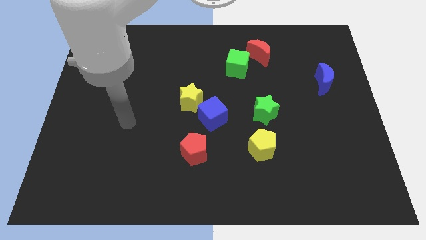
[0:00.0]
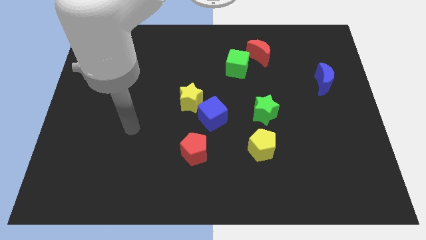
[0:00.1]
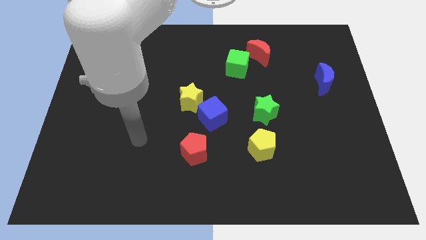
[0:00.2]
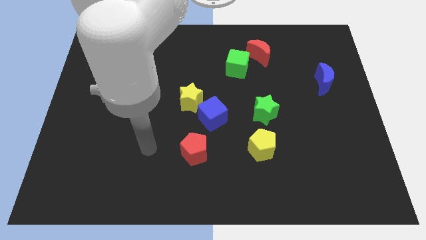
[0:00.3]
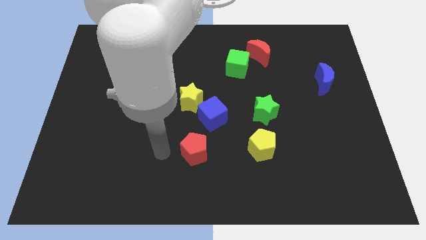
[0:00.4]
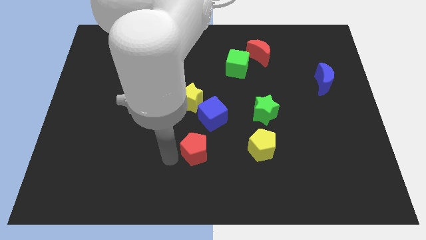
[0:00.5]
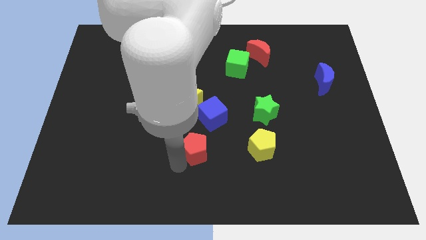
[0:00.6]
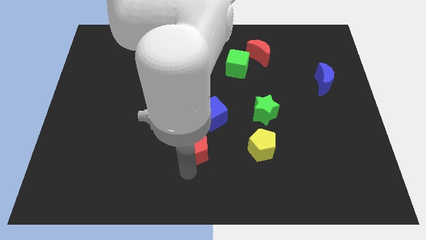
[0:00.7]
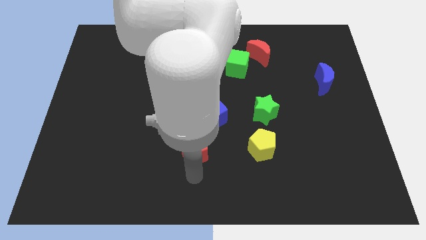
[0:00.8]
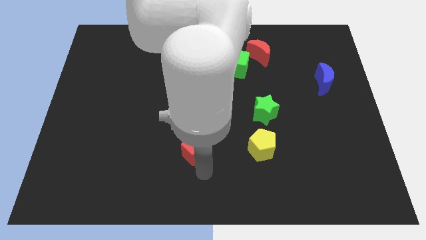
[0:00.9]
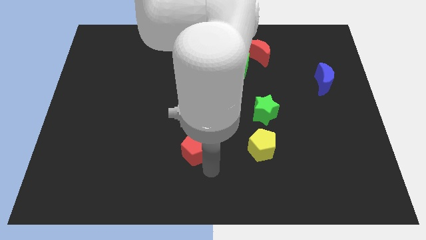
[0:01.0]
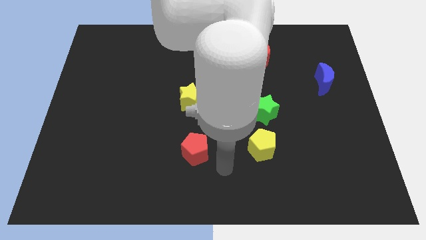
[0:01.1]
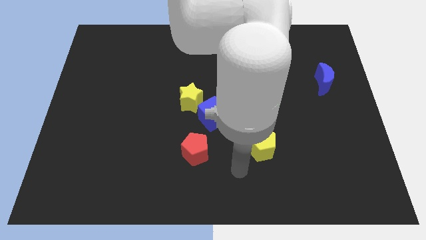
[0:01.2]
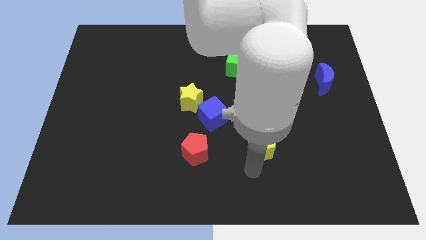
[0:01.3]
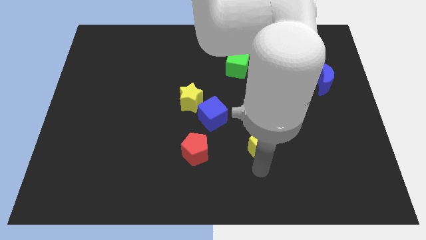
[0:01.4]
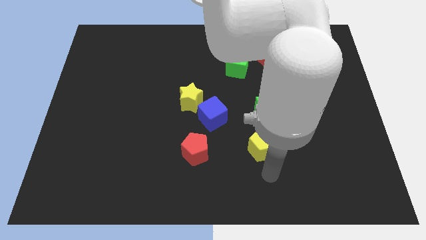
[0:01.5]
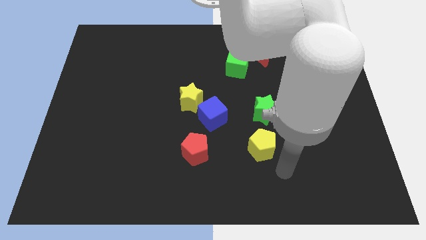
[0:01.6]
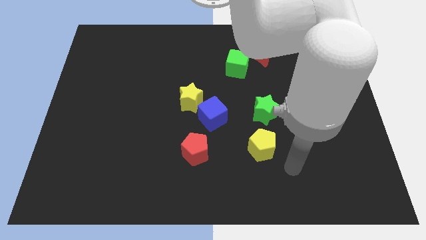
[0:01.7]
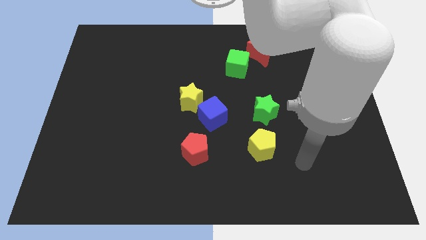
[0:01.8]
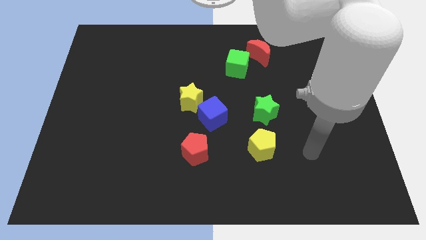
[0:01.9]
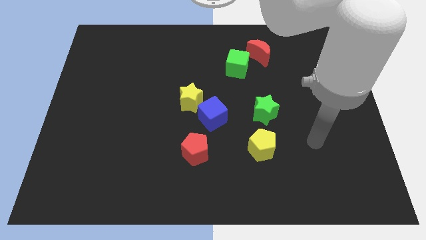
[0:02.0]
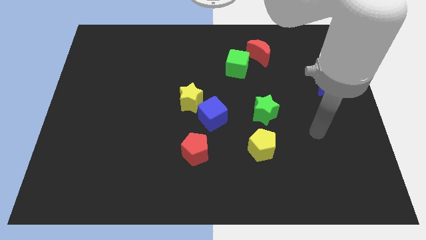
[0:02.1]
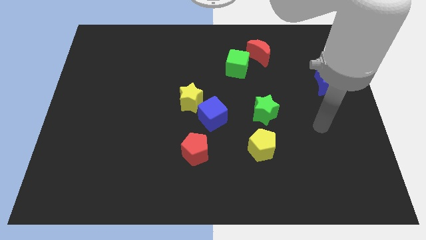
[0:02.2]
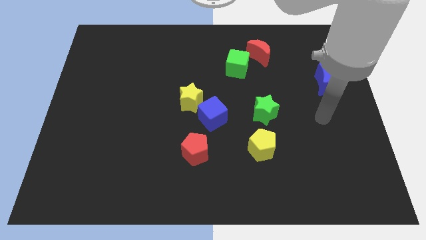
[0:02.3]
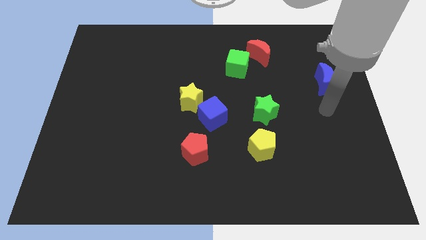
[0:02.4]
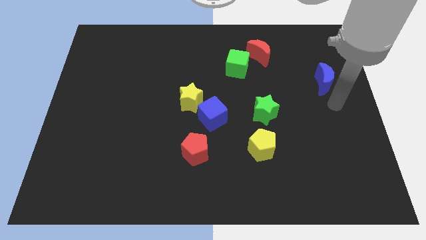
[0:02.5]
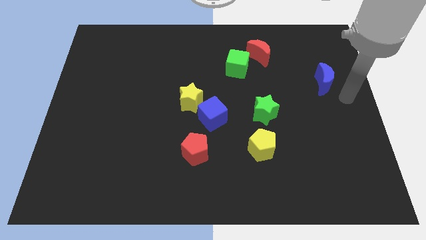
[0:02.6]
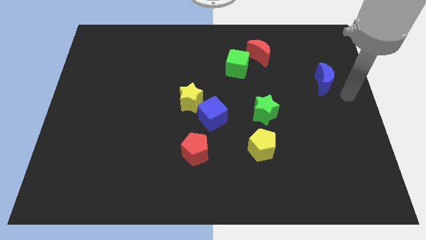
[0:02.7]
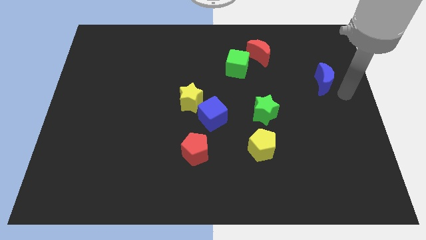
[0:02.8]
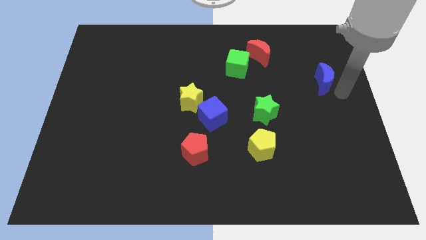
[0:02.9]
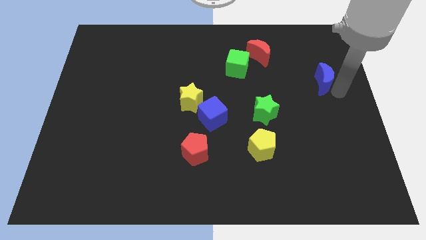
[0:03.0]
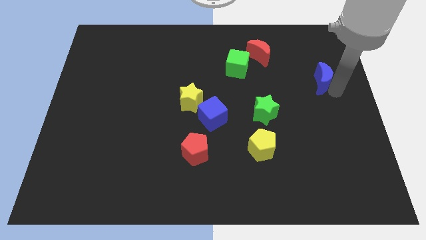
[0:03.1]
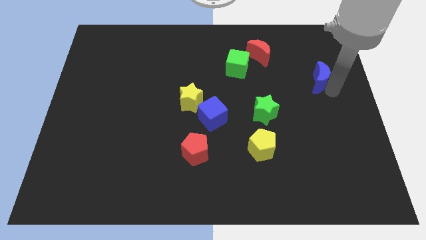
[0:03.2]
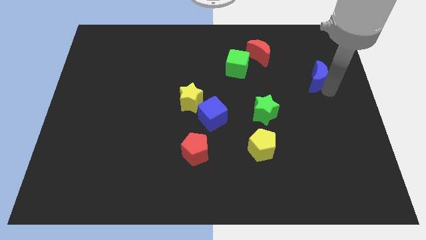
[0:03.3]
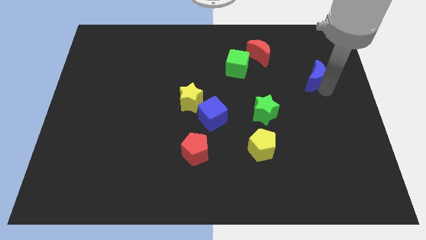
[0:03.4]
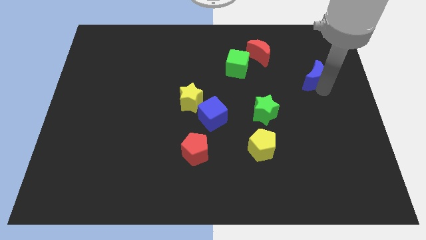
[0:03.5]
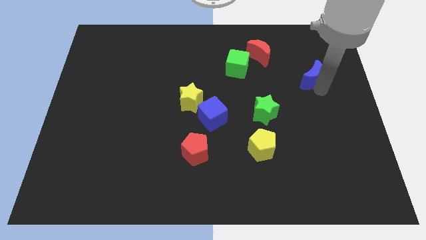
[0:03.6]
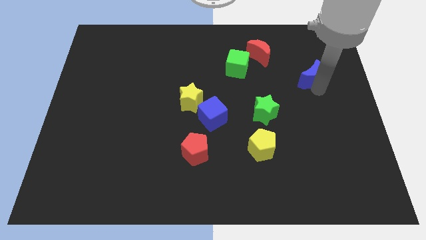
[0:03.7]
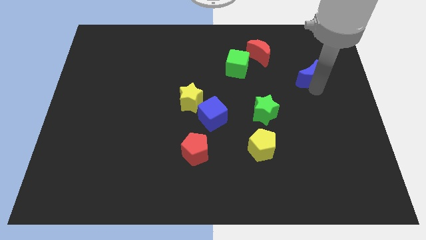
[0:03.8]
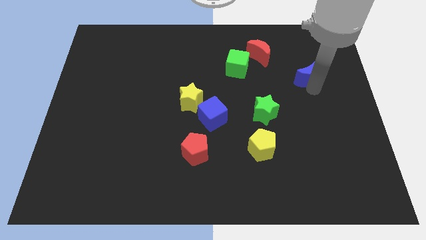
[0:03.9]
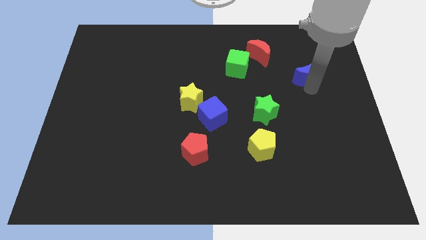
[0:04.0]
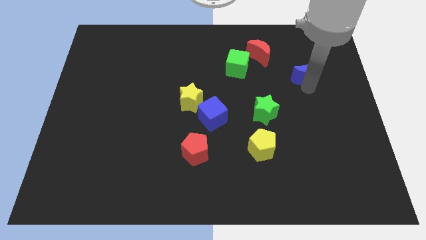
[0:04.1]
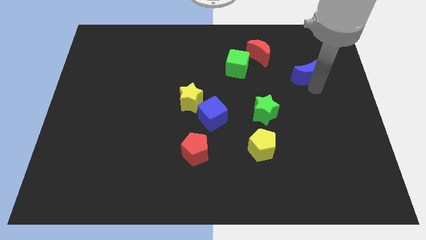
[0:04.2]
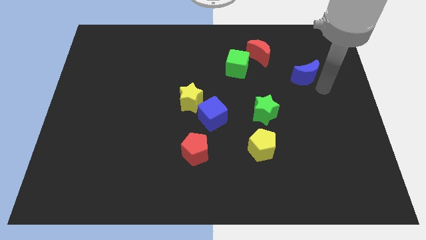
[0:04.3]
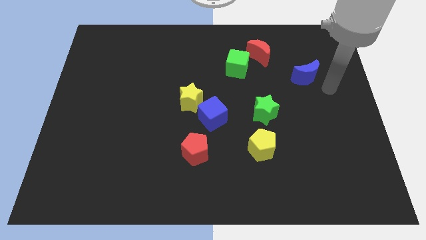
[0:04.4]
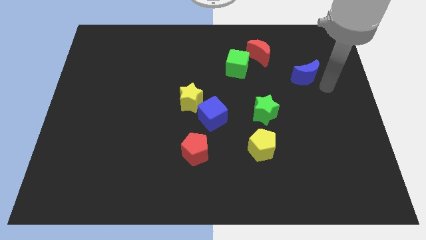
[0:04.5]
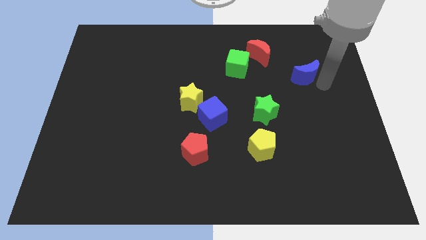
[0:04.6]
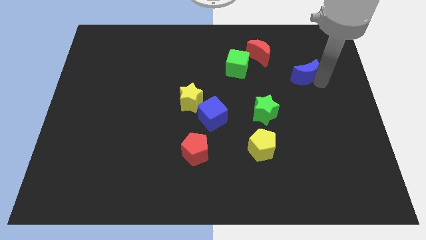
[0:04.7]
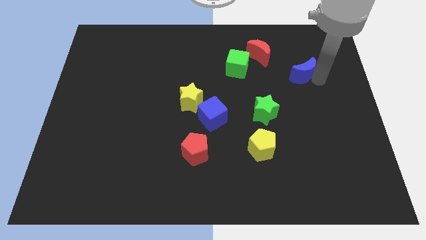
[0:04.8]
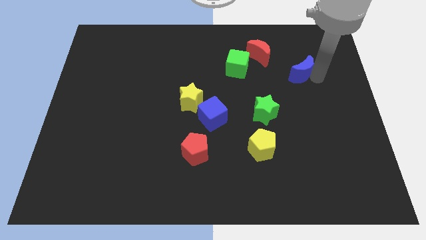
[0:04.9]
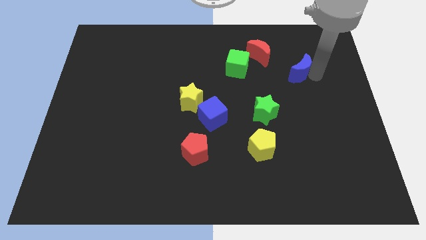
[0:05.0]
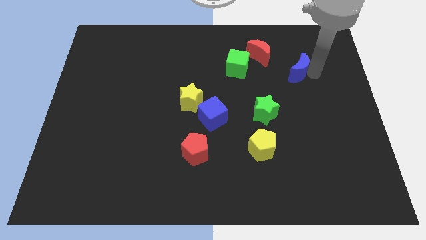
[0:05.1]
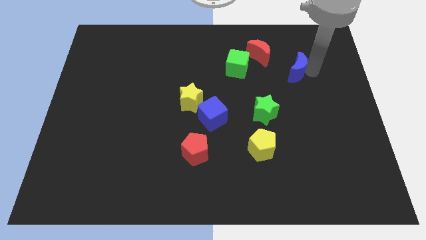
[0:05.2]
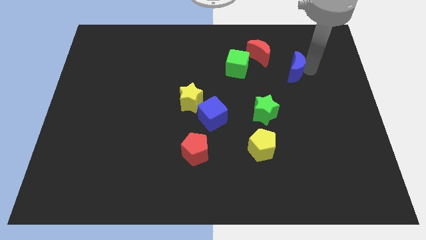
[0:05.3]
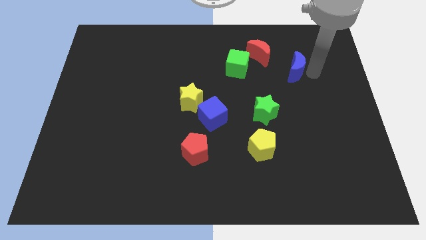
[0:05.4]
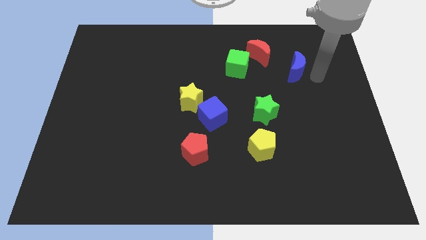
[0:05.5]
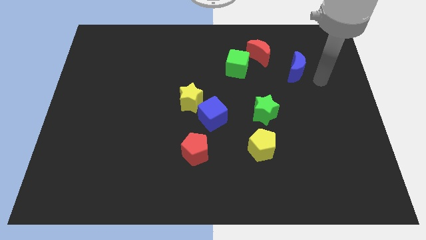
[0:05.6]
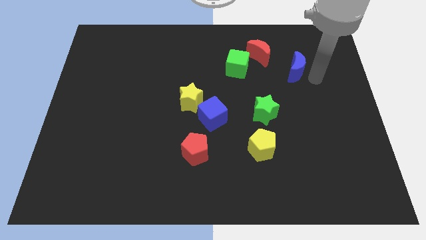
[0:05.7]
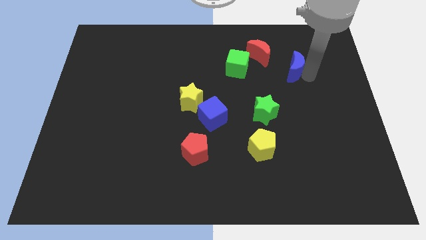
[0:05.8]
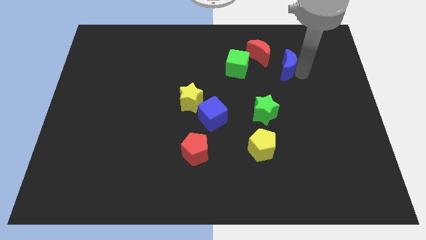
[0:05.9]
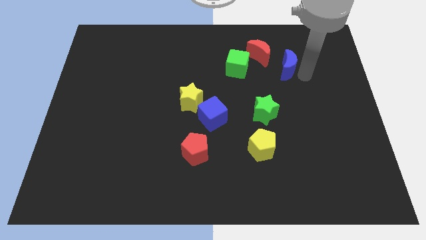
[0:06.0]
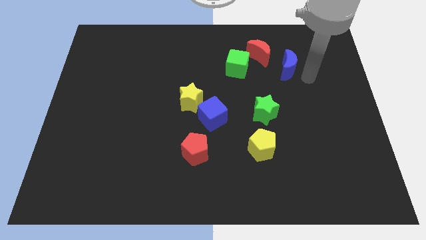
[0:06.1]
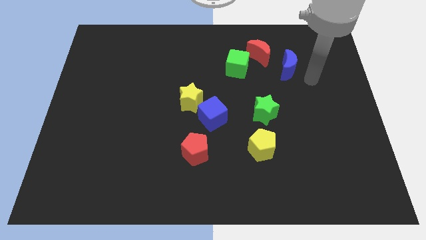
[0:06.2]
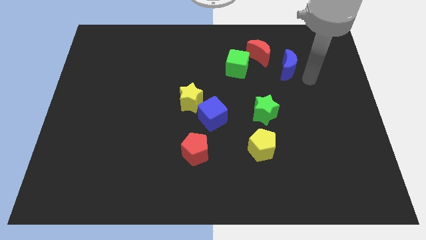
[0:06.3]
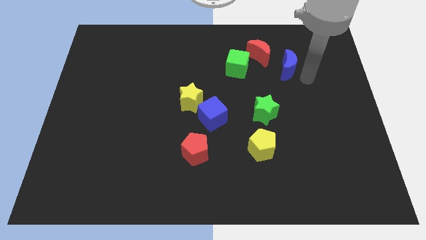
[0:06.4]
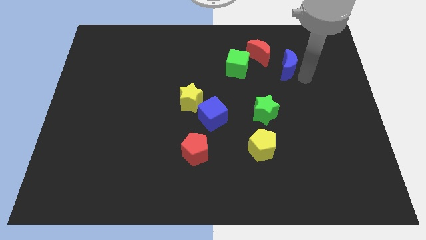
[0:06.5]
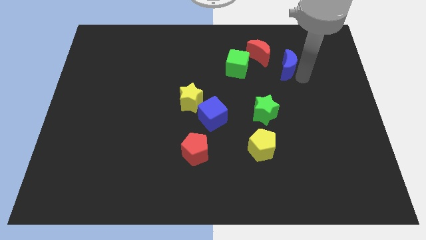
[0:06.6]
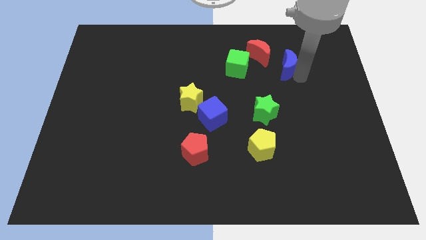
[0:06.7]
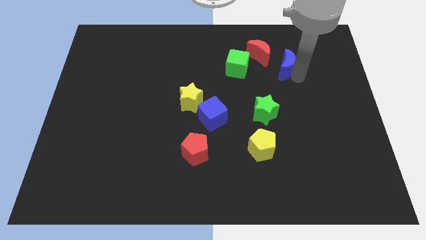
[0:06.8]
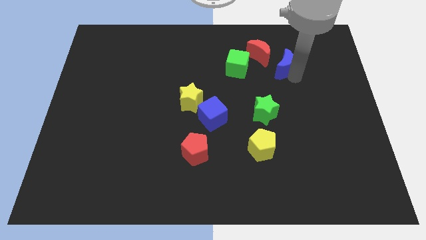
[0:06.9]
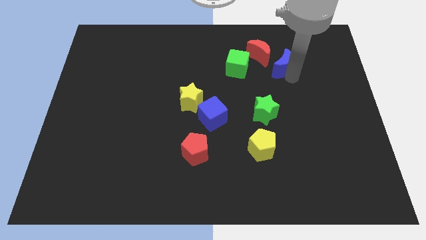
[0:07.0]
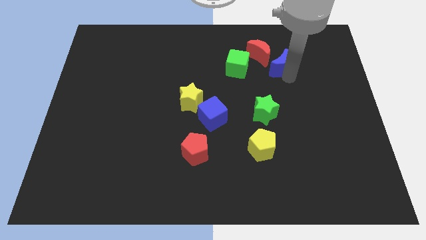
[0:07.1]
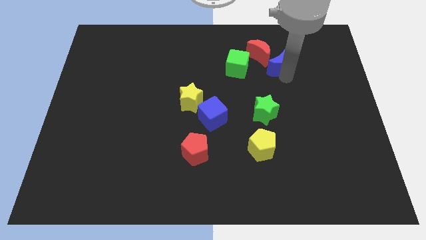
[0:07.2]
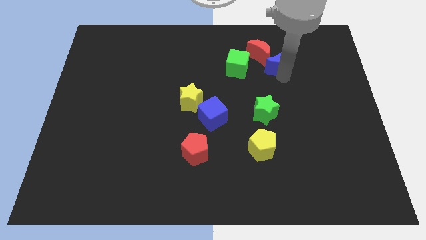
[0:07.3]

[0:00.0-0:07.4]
push the blue moon close to the red moon

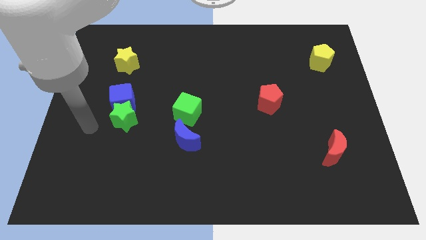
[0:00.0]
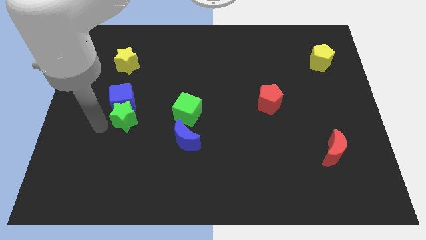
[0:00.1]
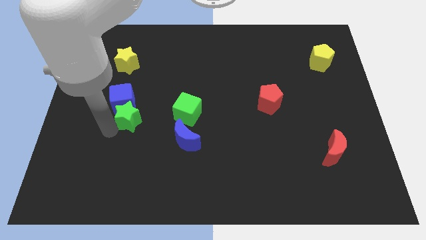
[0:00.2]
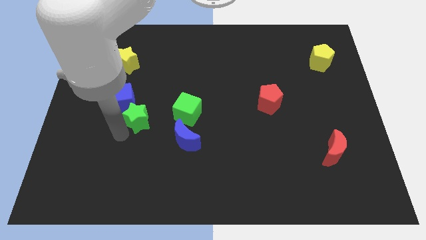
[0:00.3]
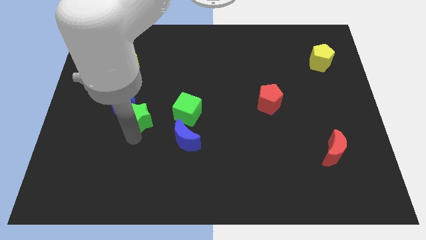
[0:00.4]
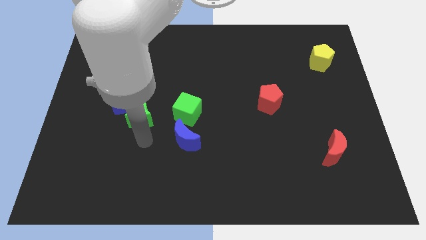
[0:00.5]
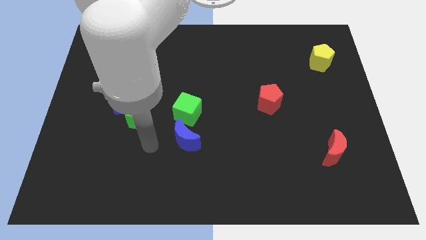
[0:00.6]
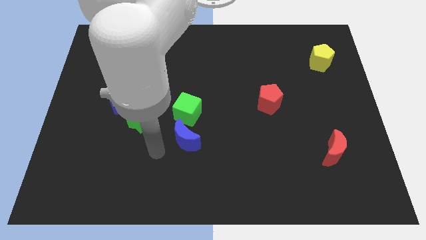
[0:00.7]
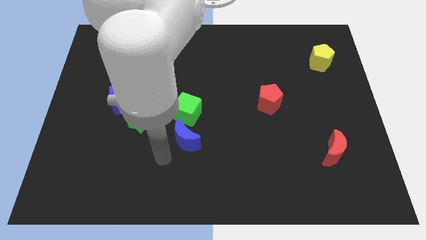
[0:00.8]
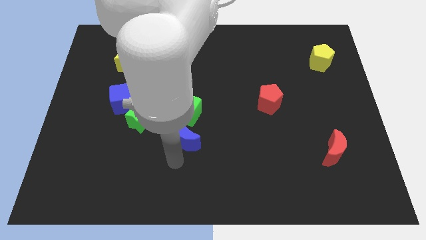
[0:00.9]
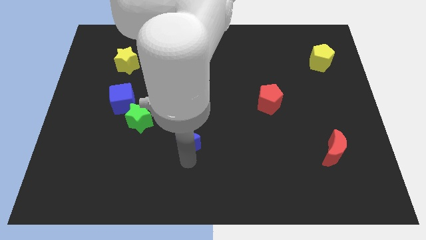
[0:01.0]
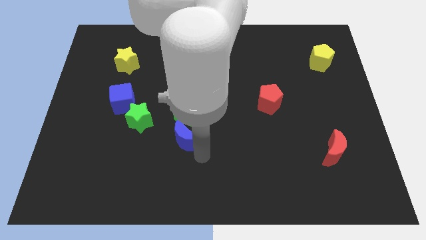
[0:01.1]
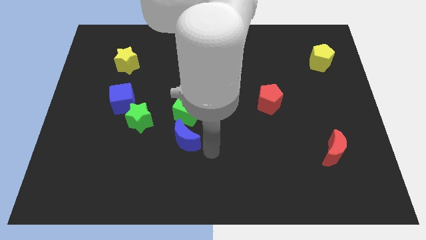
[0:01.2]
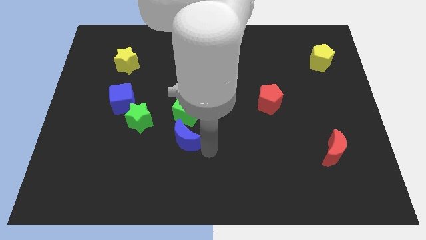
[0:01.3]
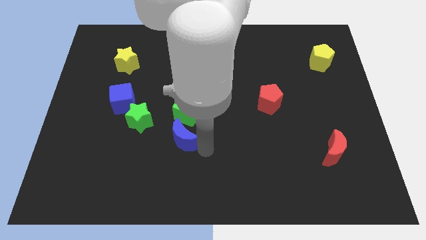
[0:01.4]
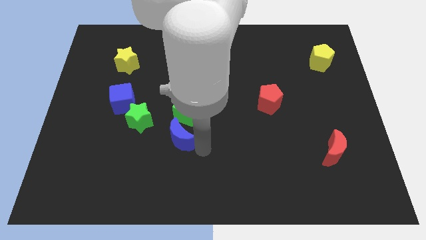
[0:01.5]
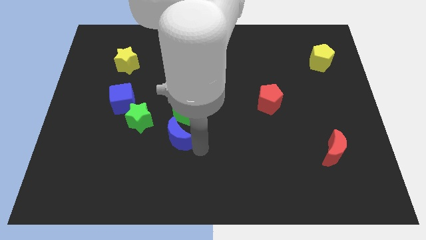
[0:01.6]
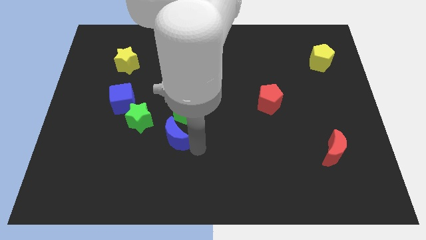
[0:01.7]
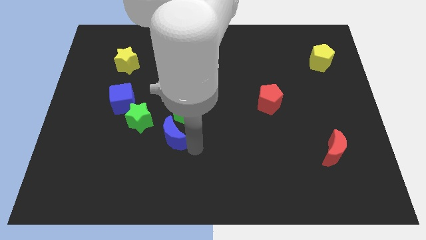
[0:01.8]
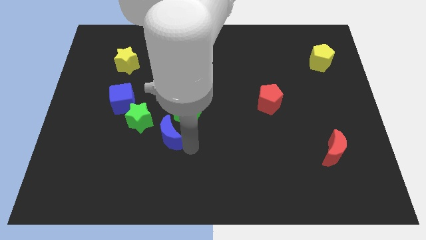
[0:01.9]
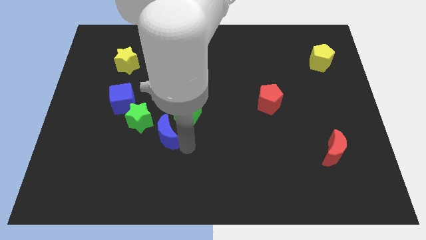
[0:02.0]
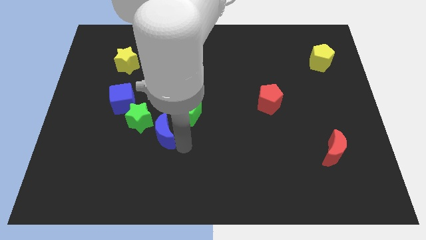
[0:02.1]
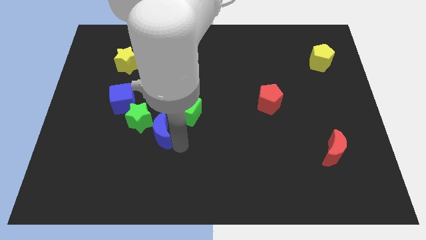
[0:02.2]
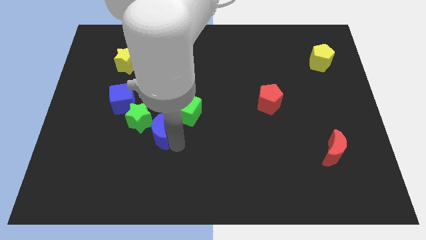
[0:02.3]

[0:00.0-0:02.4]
move the blue moon next to the green star
